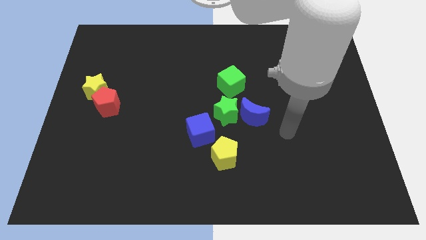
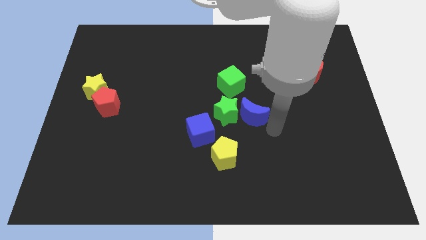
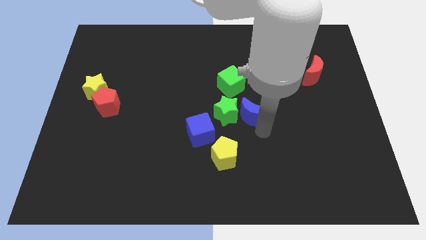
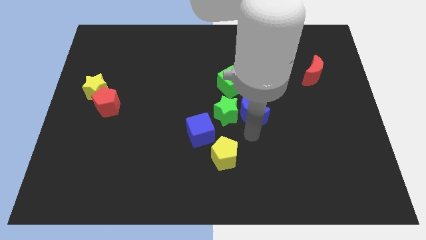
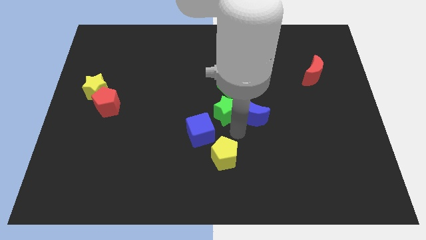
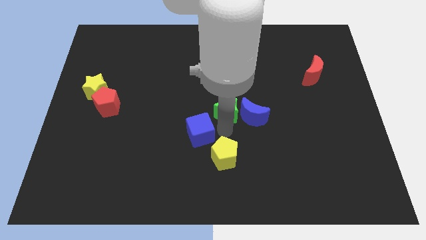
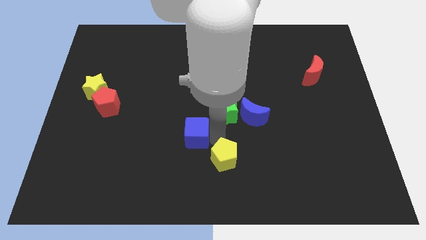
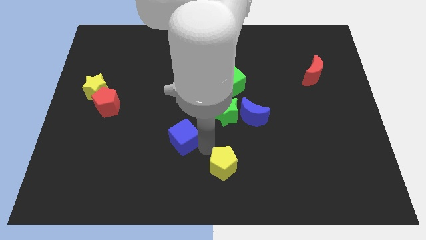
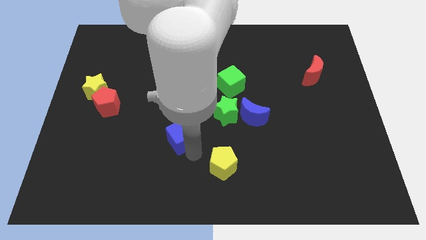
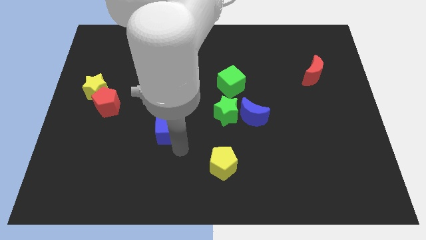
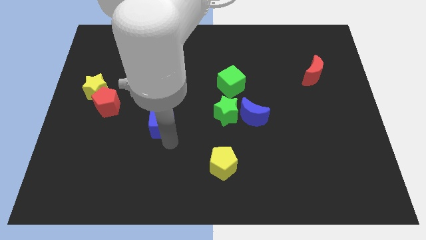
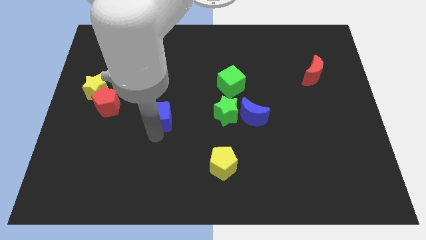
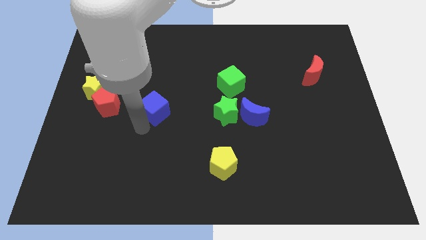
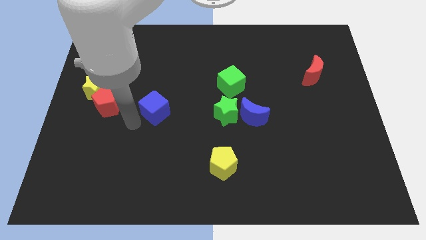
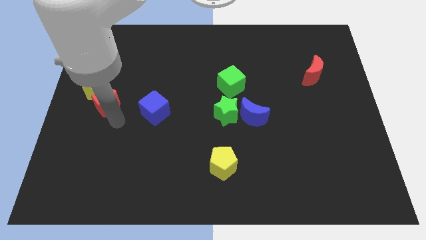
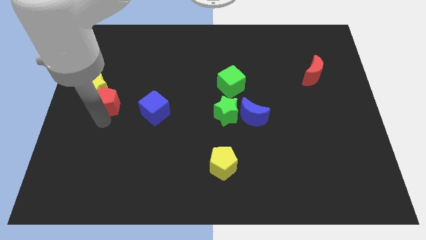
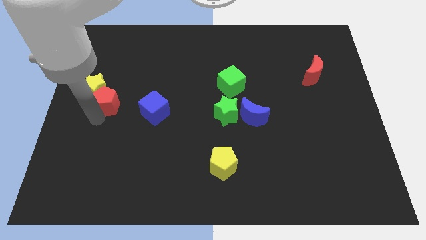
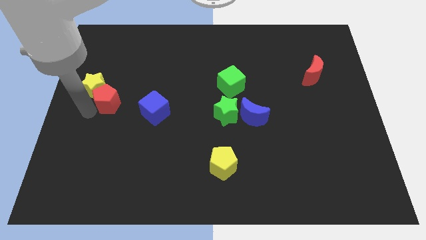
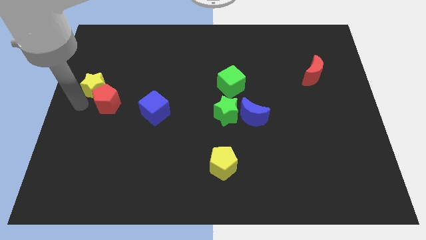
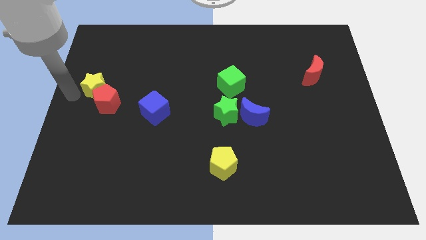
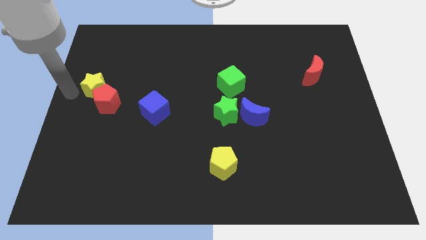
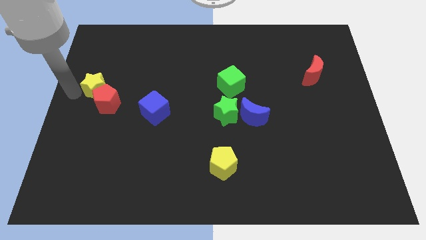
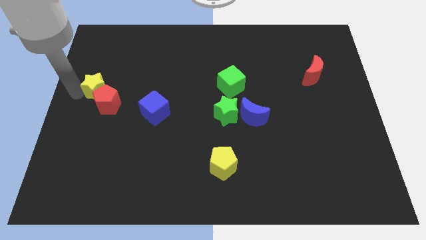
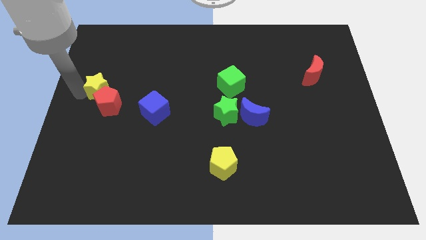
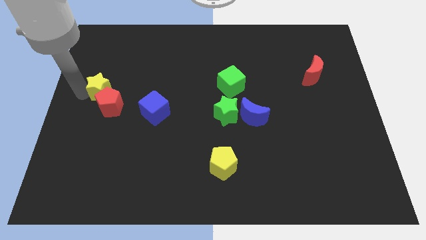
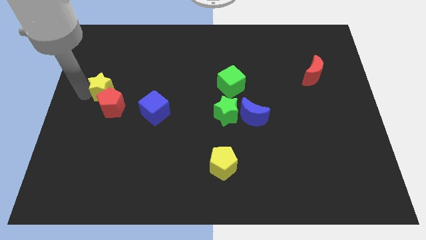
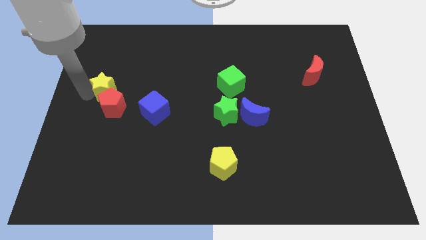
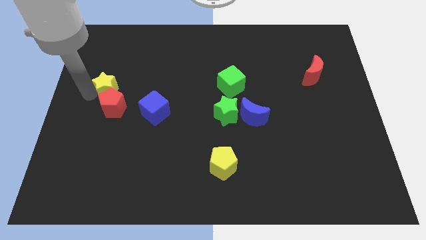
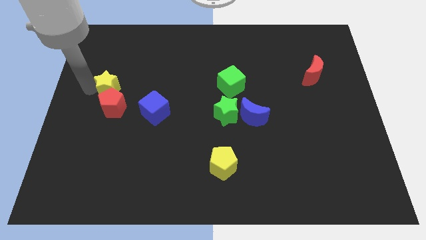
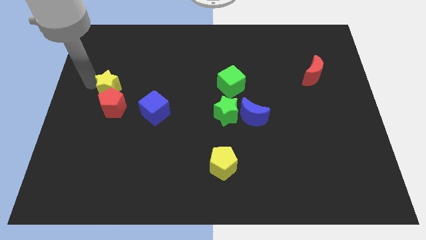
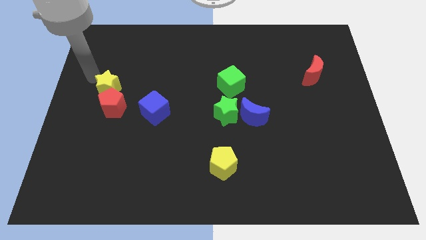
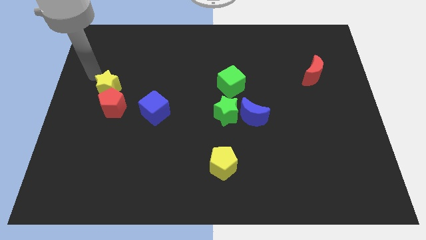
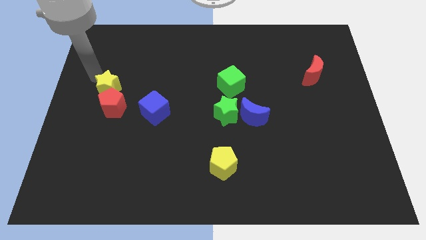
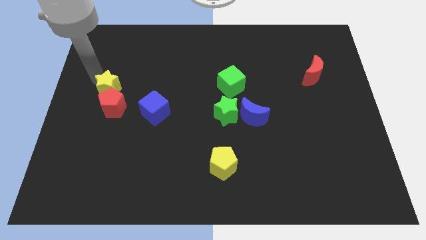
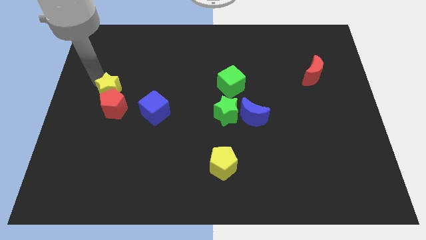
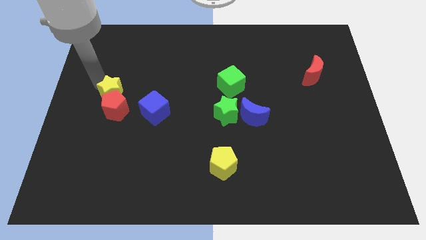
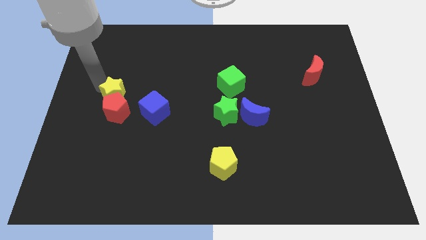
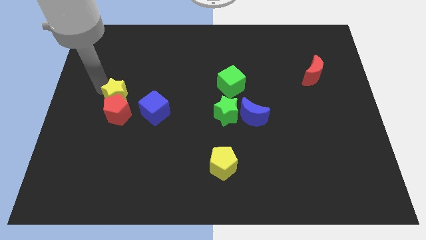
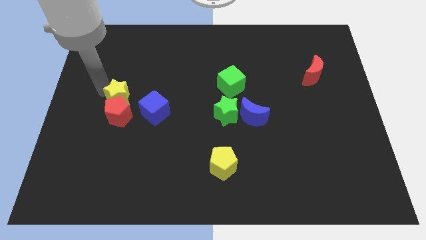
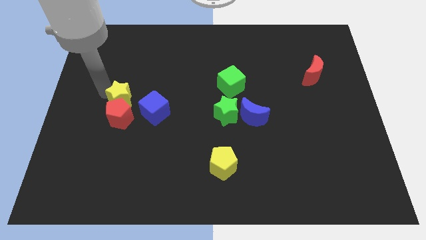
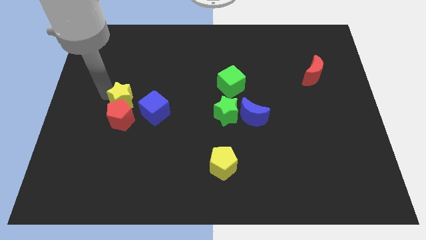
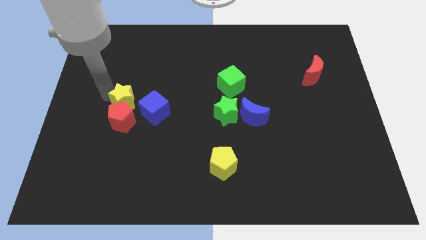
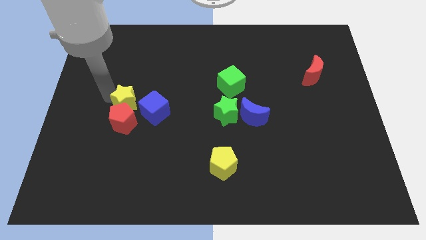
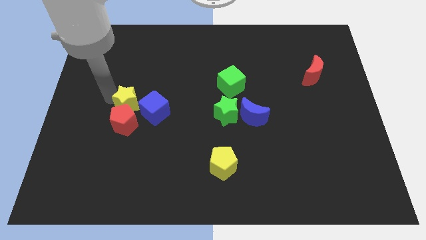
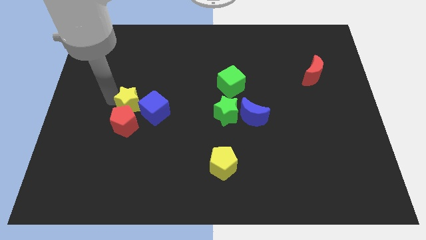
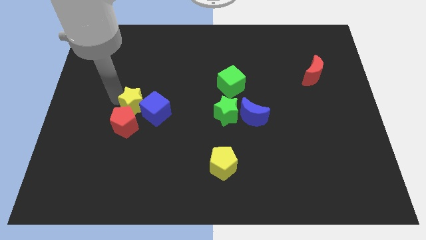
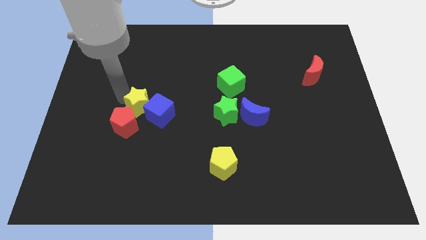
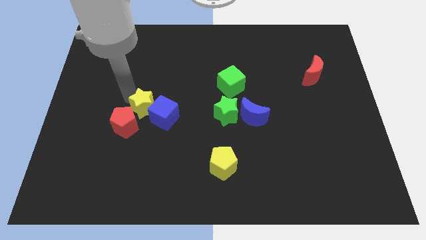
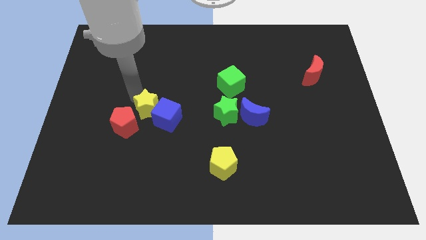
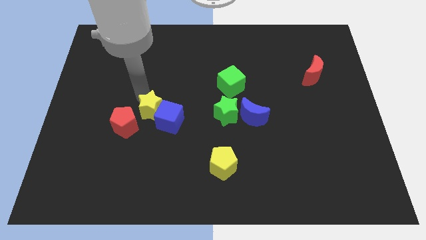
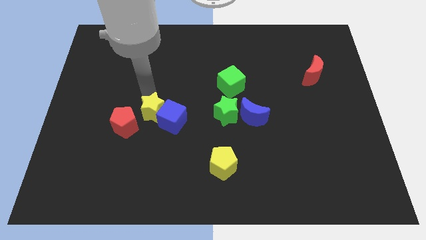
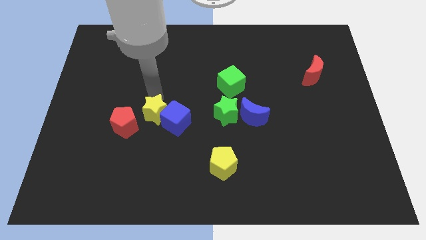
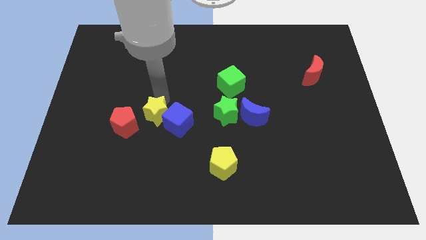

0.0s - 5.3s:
put the yellow star just left of the blue cube

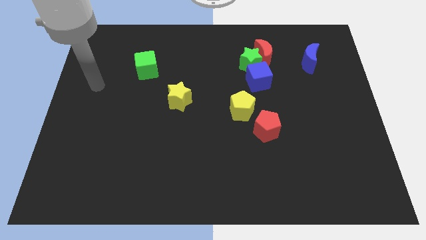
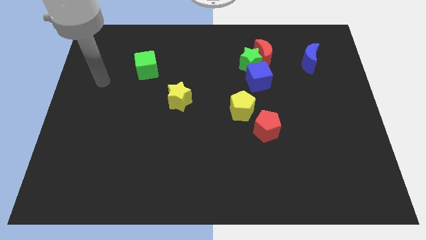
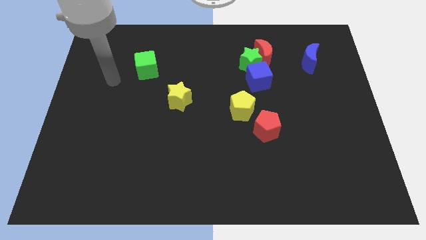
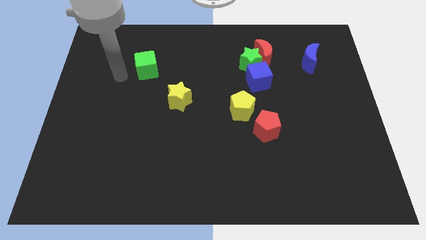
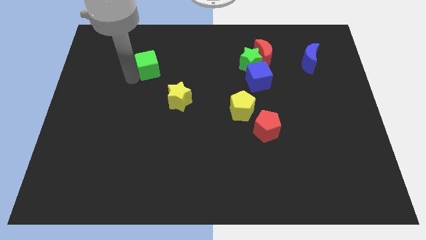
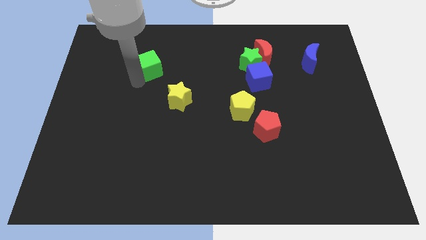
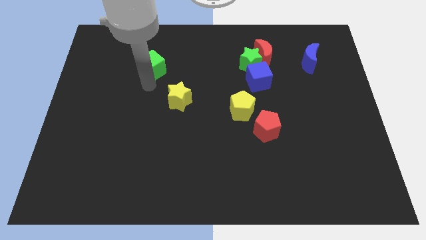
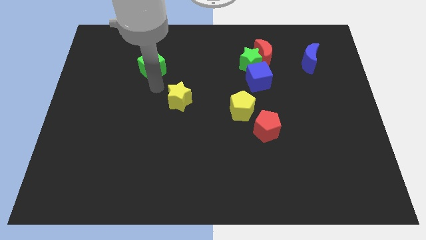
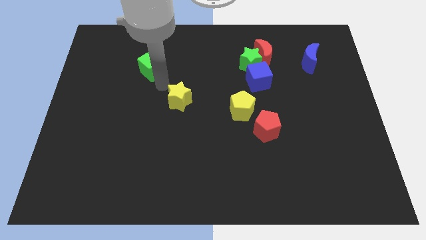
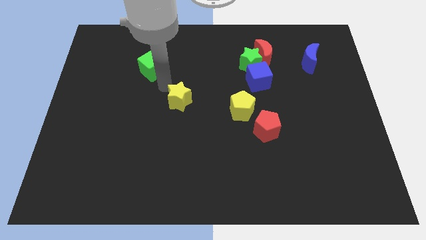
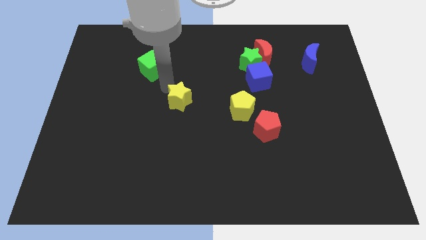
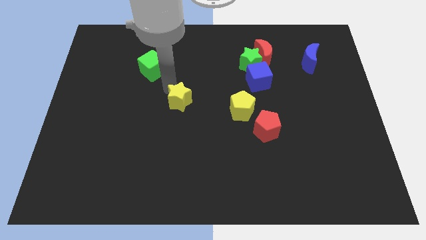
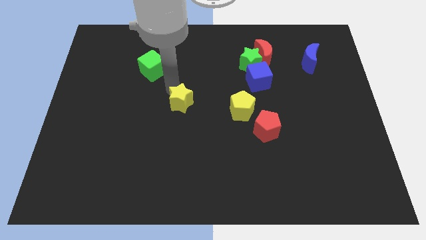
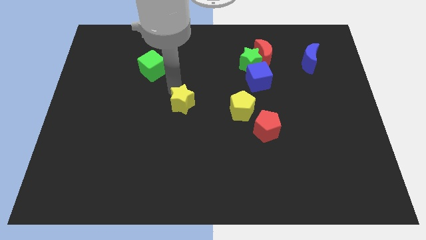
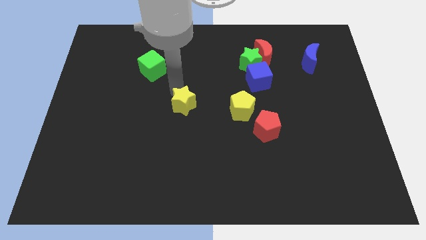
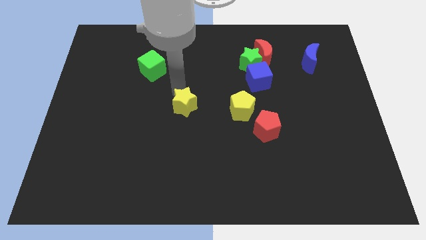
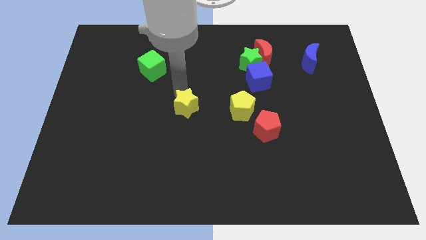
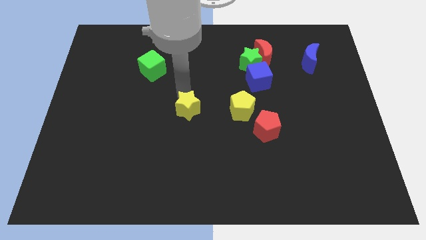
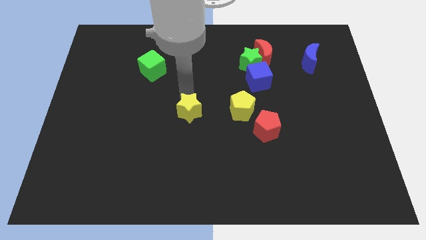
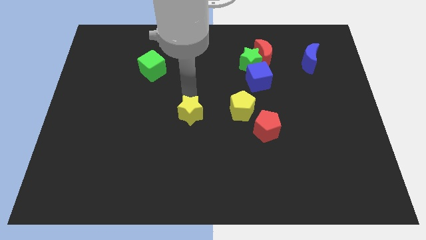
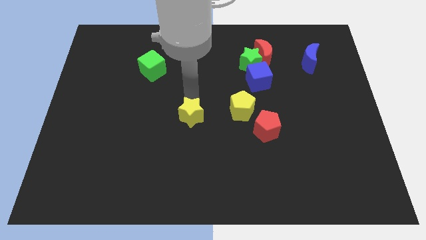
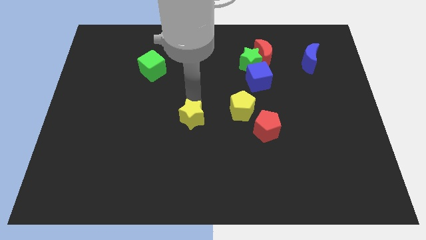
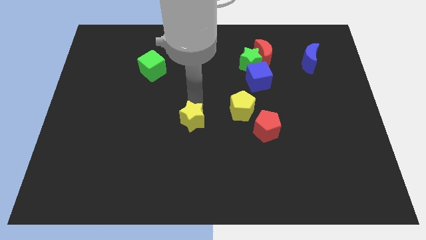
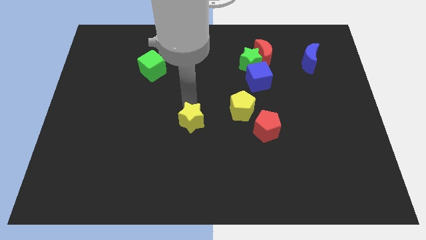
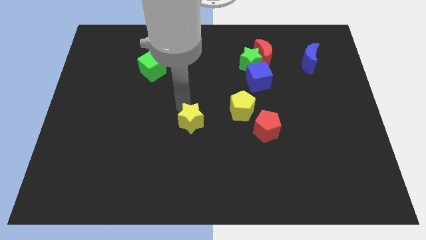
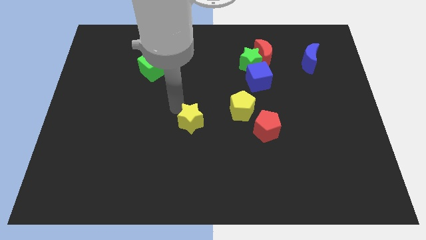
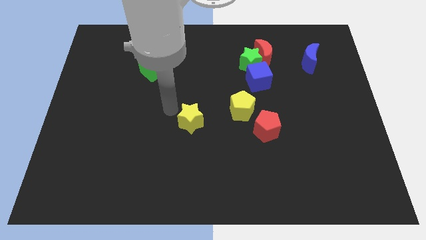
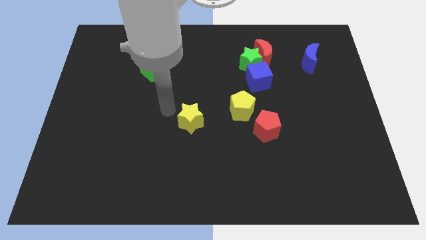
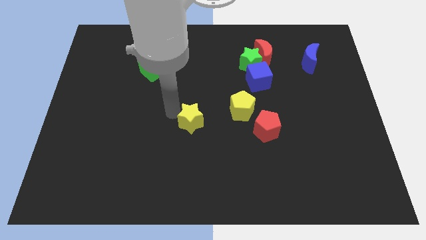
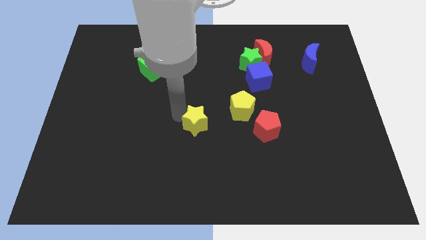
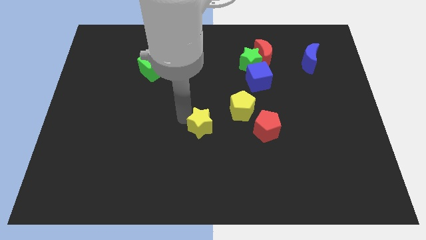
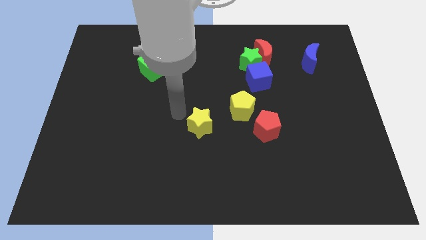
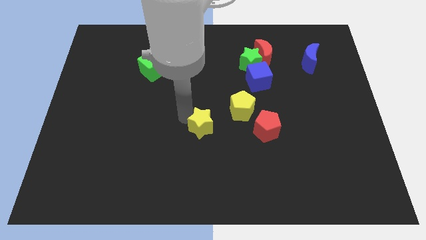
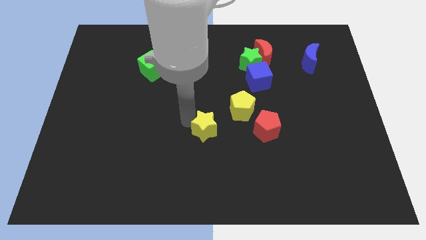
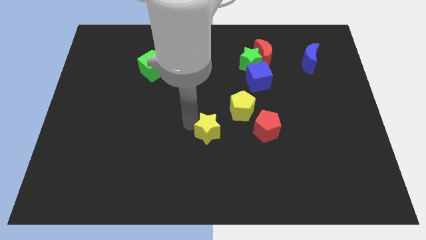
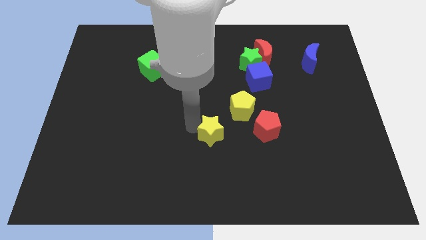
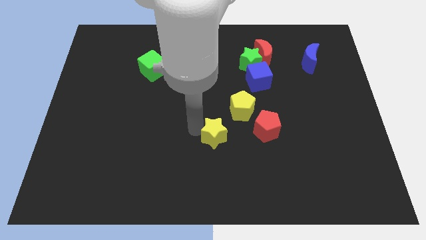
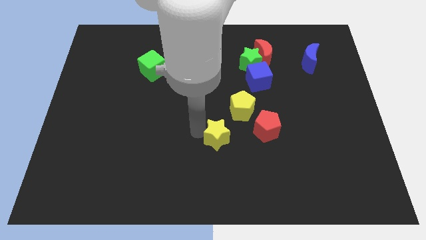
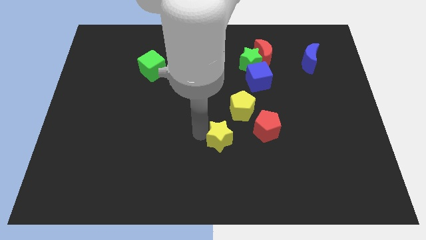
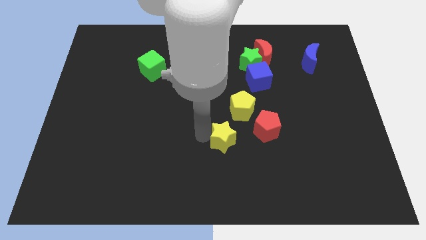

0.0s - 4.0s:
move the yellow star to the bottom side of the yellow pentagon
